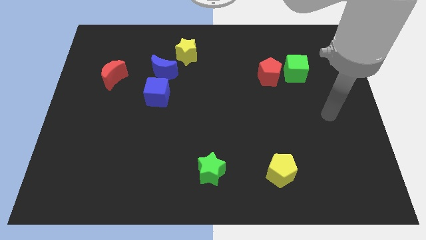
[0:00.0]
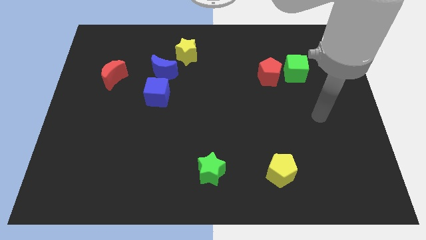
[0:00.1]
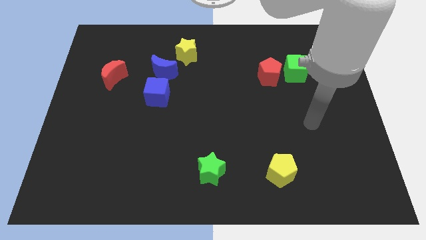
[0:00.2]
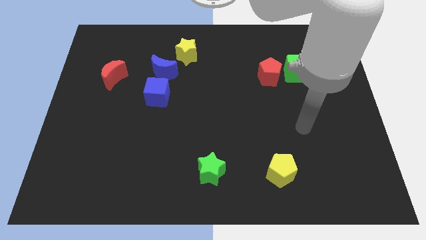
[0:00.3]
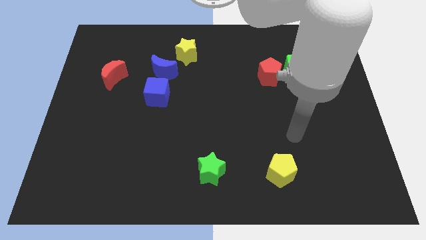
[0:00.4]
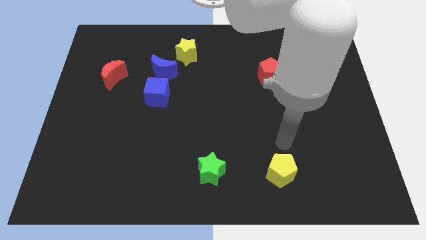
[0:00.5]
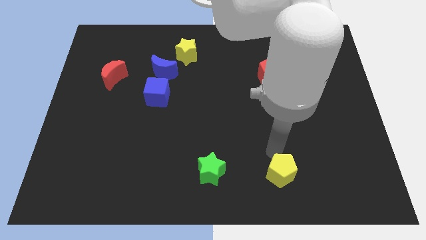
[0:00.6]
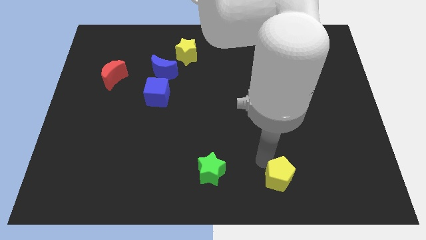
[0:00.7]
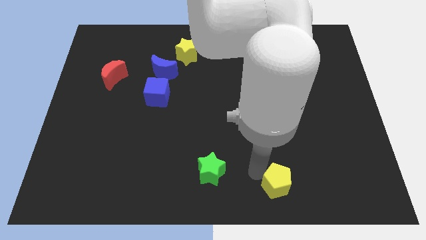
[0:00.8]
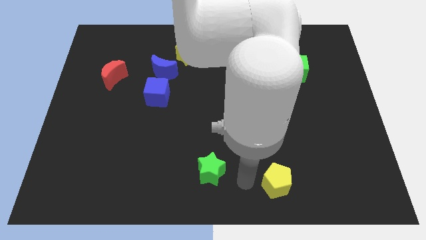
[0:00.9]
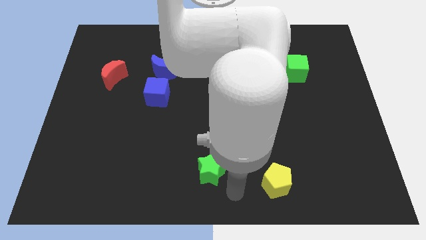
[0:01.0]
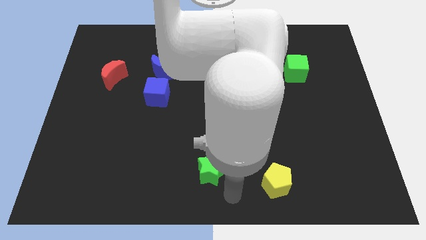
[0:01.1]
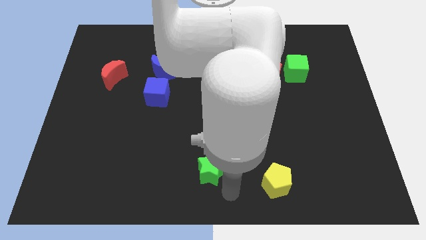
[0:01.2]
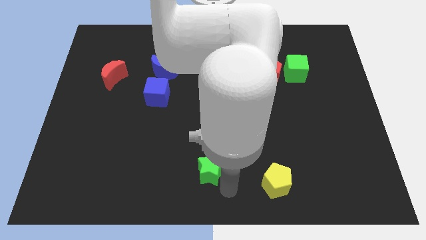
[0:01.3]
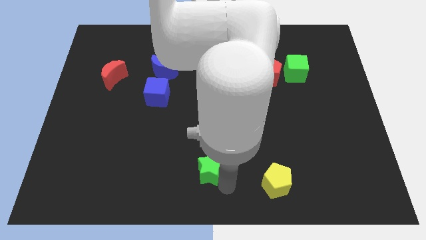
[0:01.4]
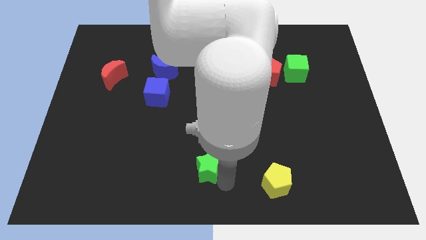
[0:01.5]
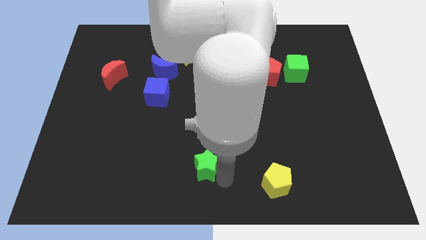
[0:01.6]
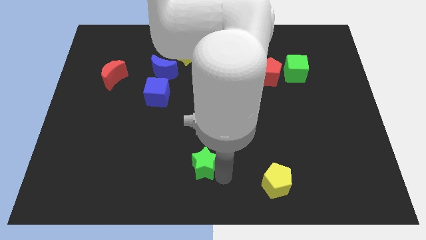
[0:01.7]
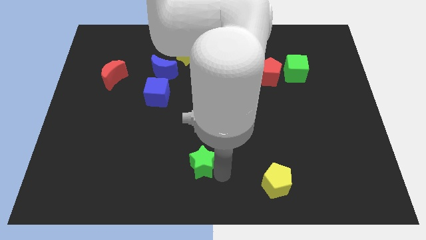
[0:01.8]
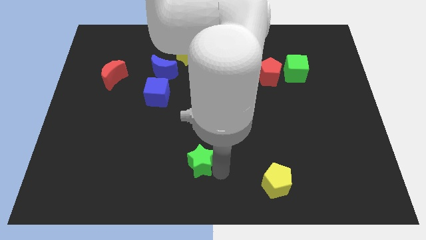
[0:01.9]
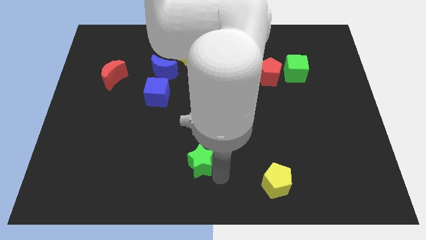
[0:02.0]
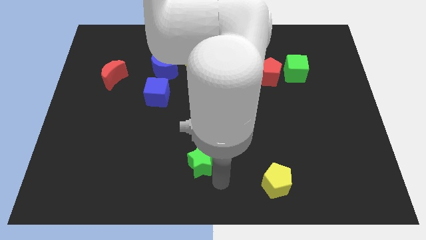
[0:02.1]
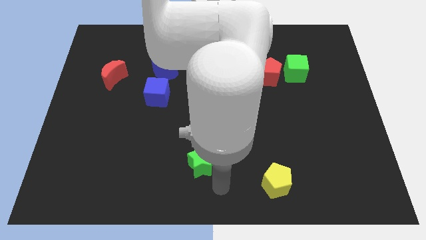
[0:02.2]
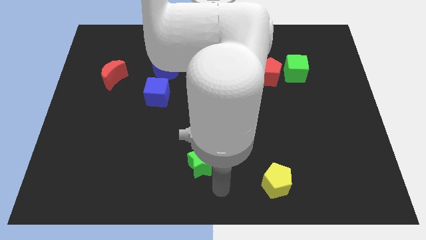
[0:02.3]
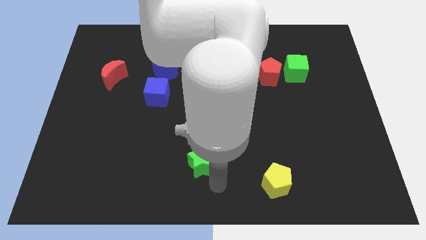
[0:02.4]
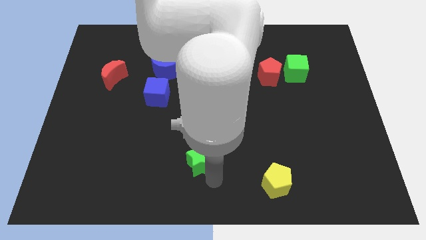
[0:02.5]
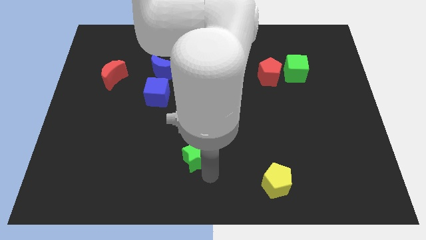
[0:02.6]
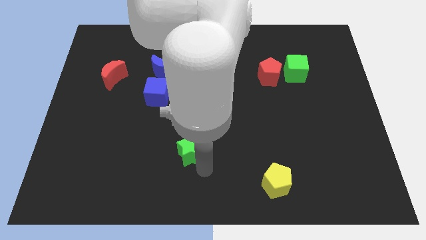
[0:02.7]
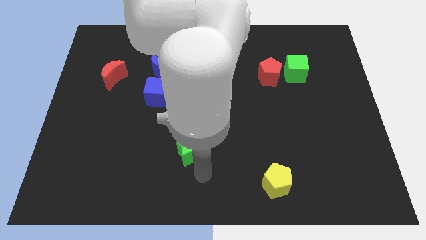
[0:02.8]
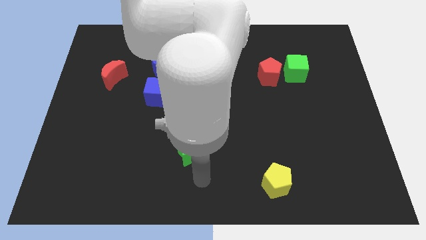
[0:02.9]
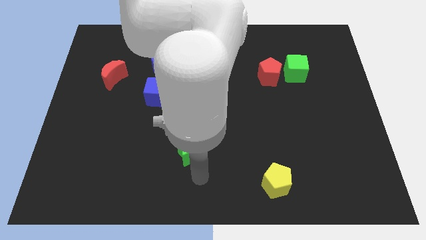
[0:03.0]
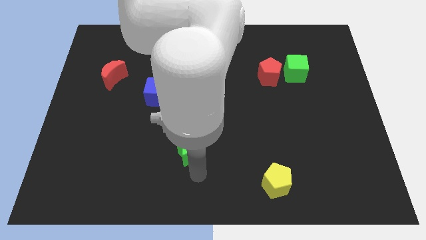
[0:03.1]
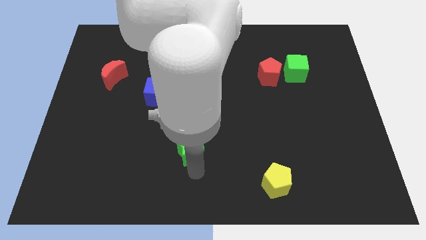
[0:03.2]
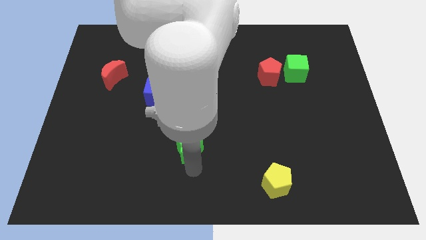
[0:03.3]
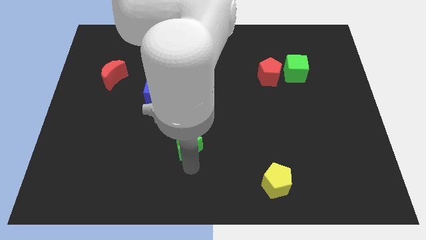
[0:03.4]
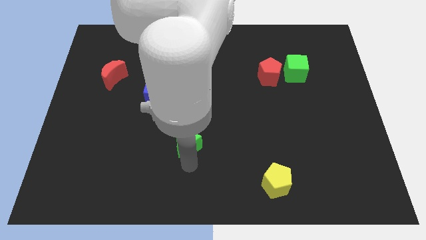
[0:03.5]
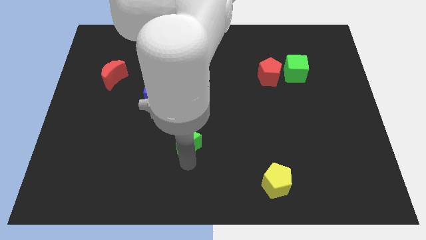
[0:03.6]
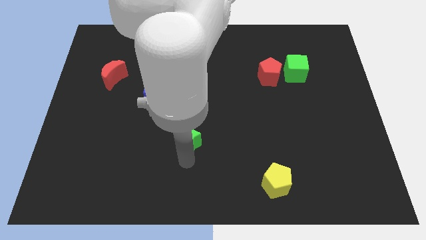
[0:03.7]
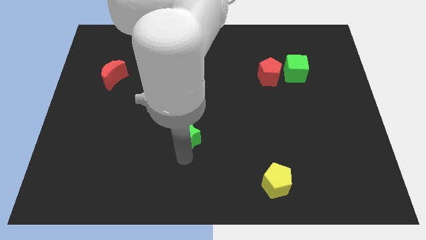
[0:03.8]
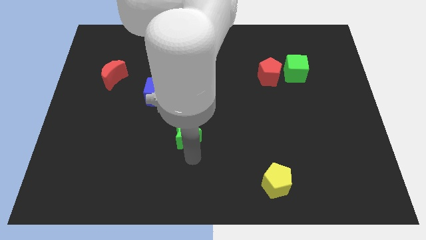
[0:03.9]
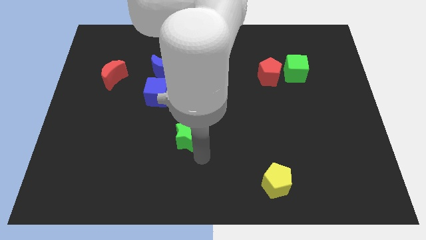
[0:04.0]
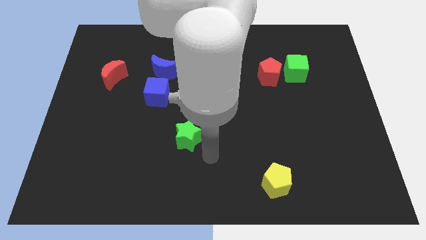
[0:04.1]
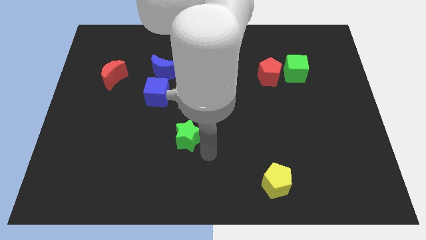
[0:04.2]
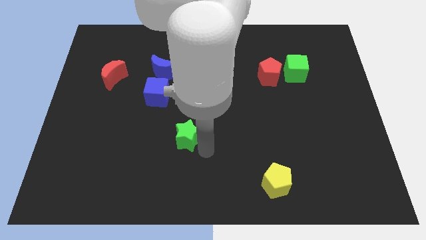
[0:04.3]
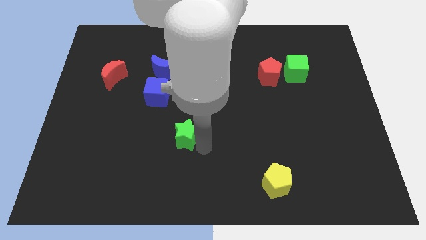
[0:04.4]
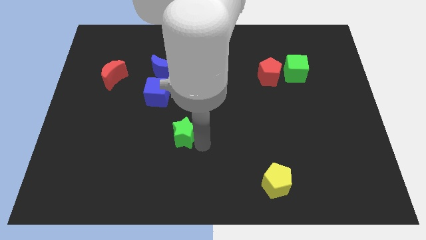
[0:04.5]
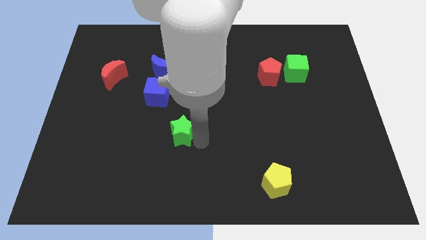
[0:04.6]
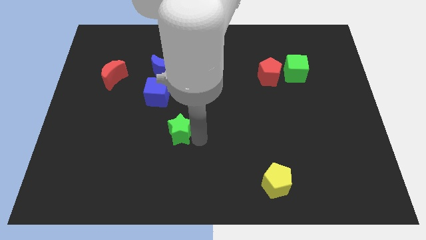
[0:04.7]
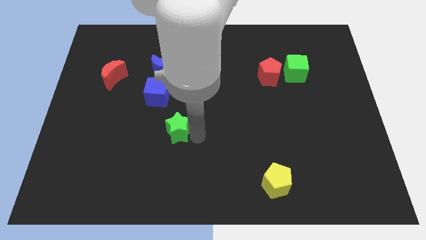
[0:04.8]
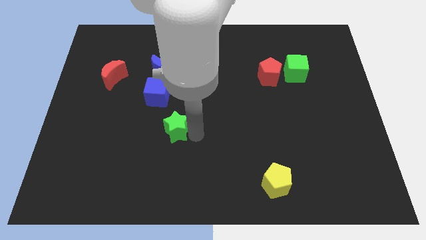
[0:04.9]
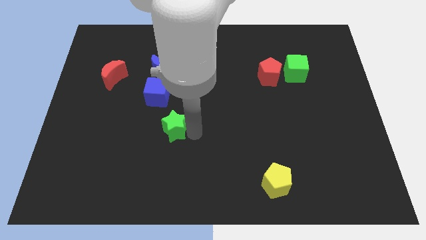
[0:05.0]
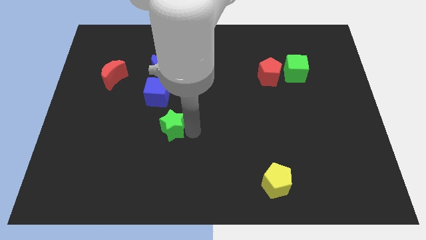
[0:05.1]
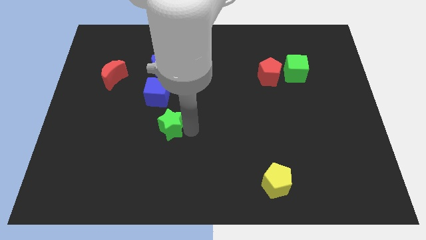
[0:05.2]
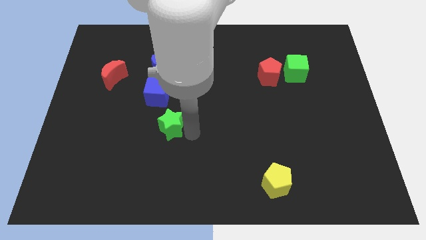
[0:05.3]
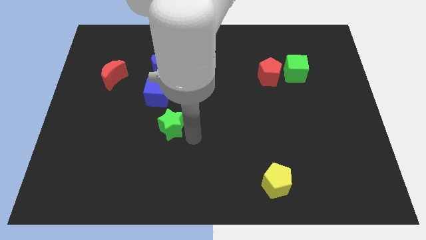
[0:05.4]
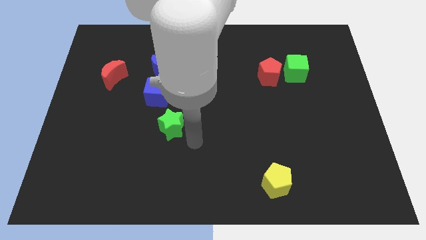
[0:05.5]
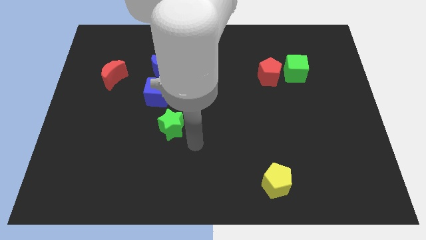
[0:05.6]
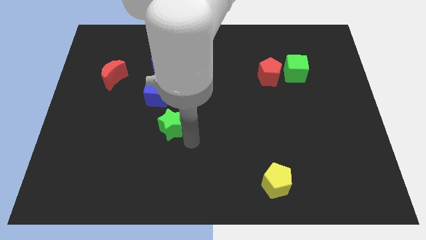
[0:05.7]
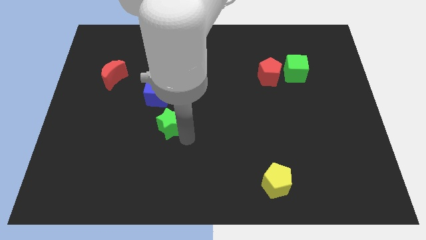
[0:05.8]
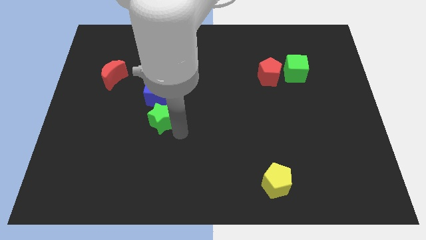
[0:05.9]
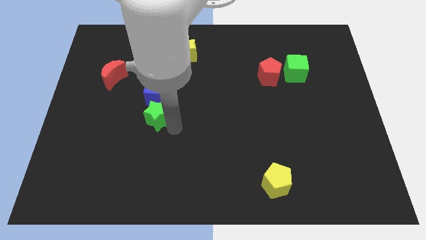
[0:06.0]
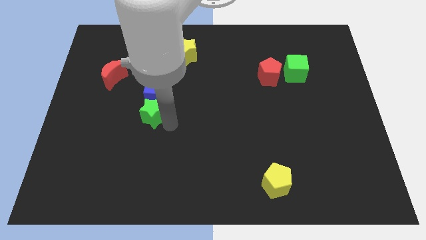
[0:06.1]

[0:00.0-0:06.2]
push the green star diagonally up and left

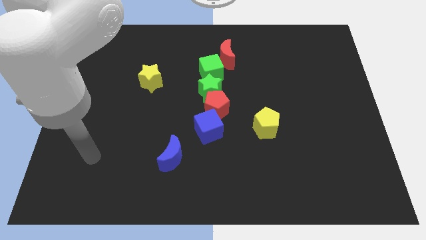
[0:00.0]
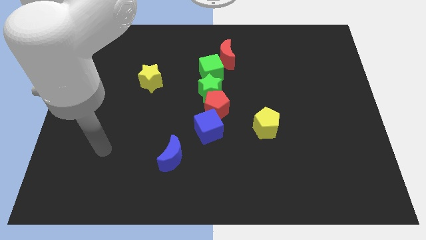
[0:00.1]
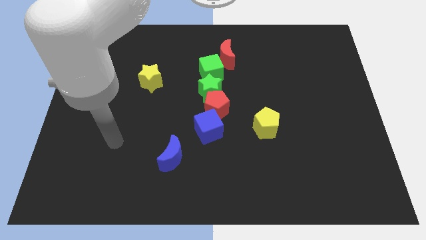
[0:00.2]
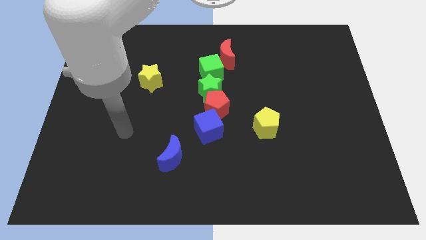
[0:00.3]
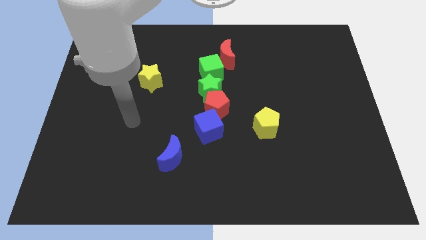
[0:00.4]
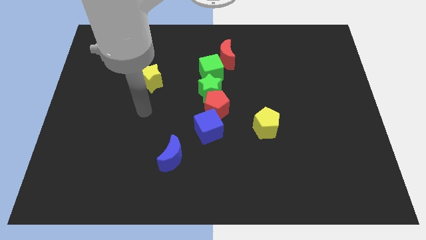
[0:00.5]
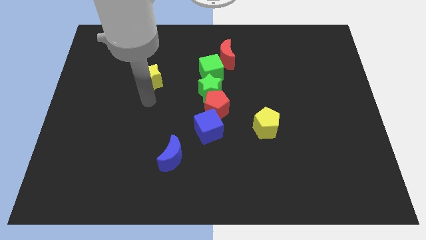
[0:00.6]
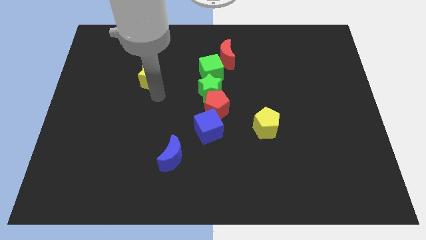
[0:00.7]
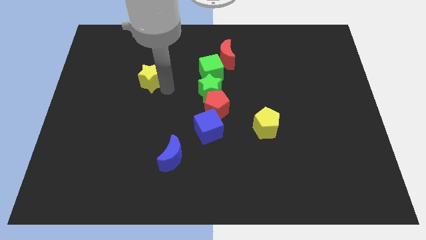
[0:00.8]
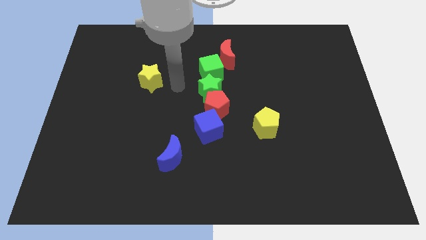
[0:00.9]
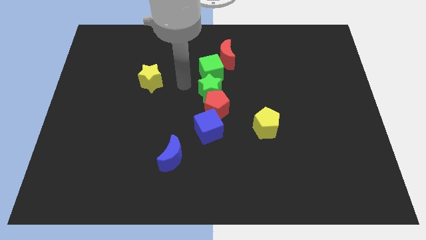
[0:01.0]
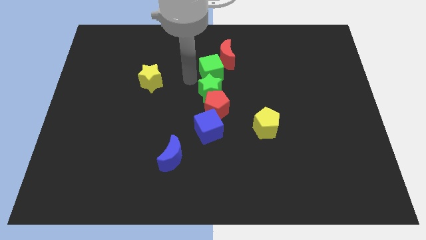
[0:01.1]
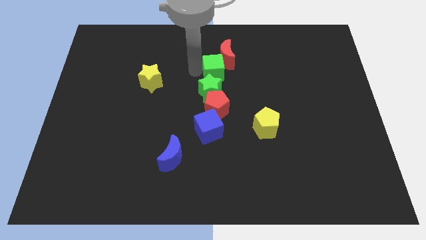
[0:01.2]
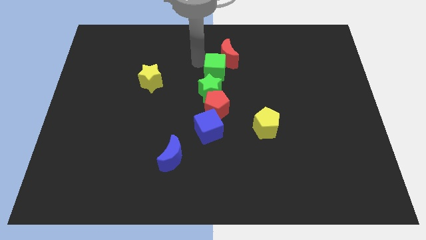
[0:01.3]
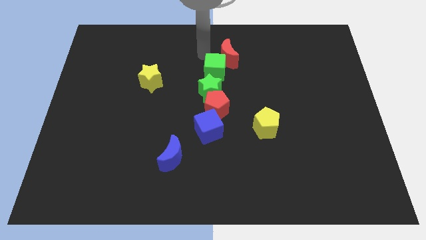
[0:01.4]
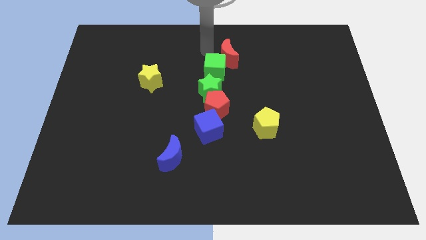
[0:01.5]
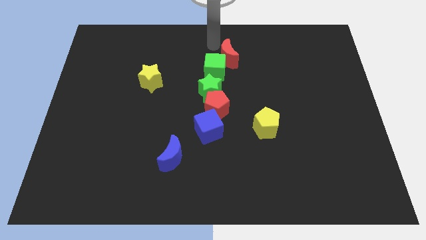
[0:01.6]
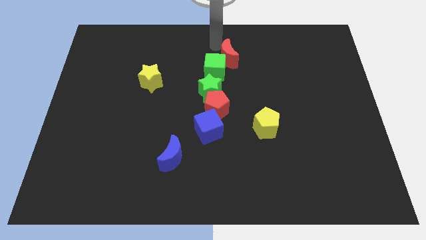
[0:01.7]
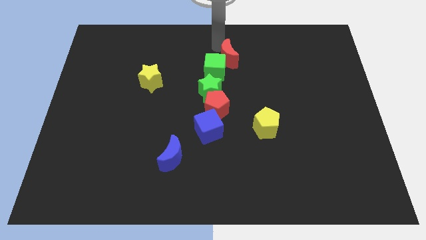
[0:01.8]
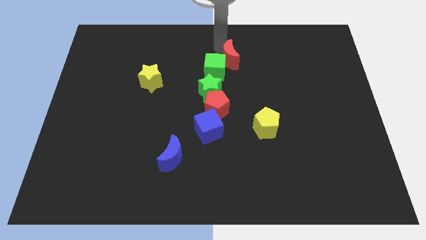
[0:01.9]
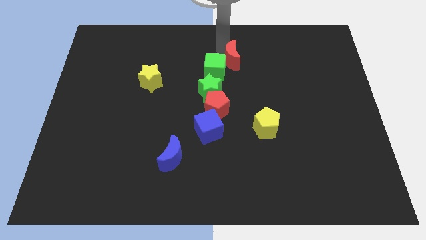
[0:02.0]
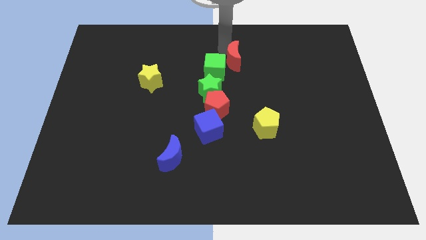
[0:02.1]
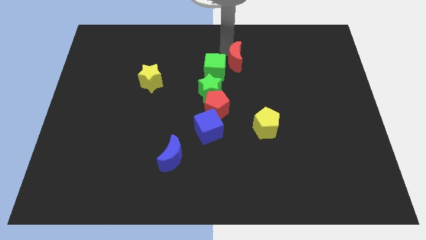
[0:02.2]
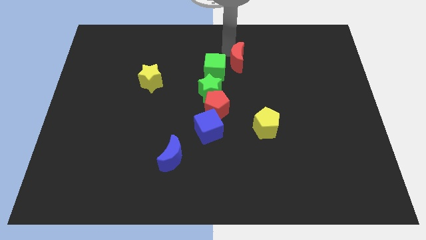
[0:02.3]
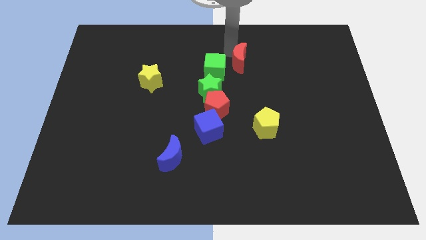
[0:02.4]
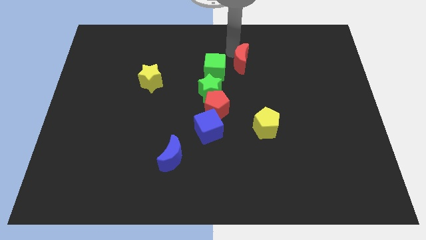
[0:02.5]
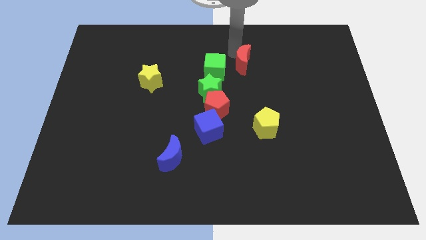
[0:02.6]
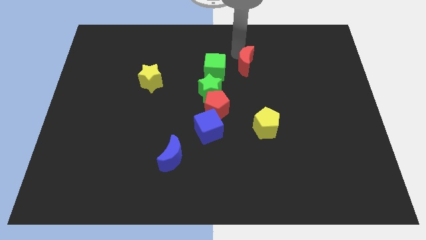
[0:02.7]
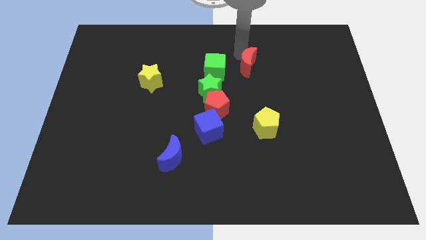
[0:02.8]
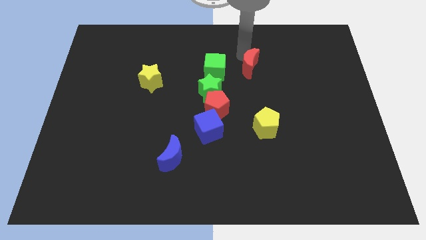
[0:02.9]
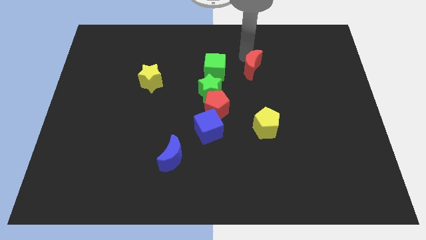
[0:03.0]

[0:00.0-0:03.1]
slightly slide the red moon down and to the right diagonally
